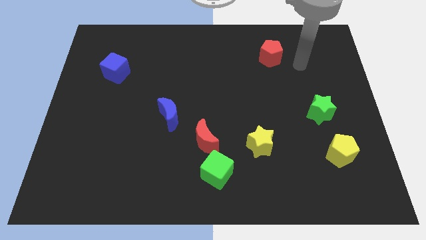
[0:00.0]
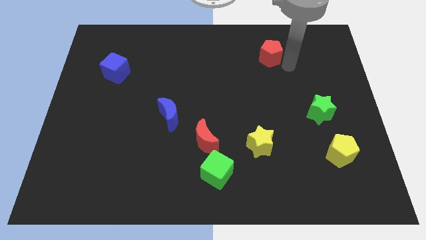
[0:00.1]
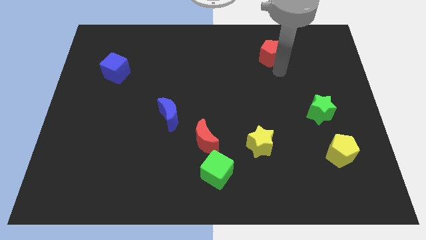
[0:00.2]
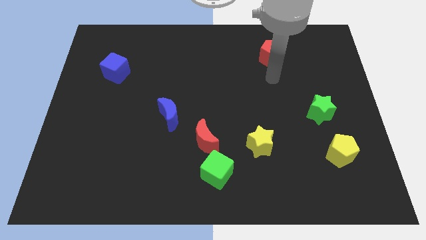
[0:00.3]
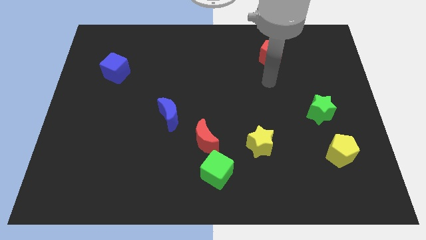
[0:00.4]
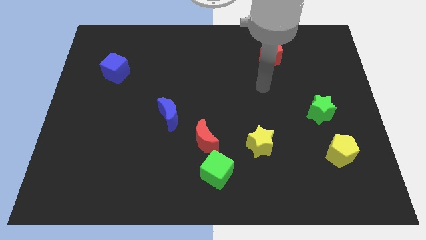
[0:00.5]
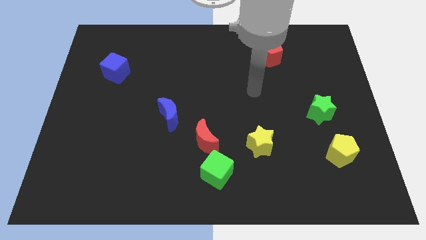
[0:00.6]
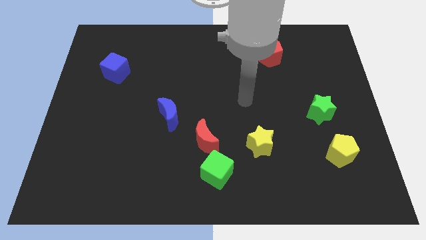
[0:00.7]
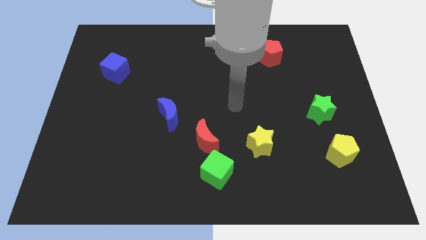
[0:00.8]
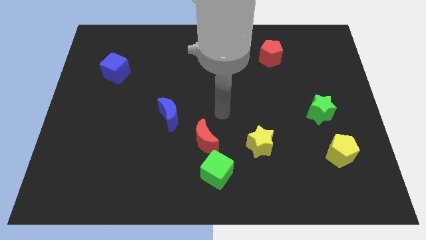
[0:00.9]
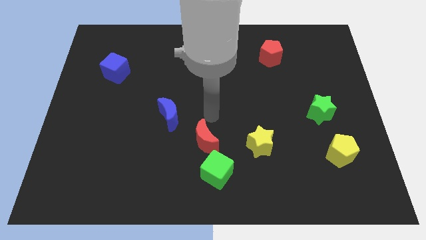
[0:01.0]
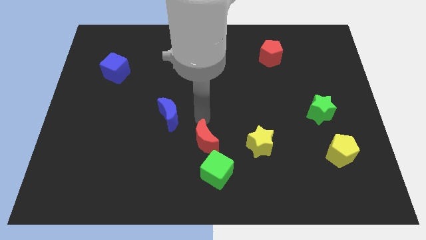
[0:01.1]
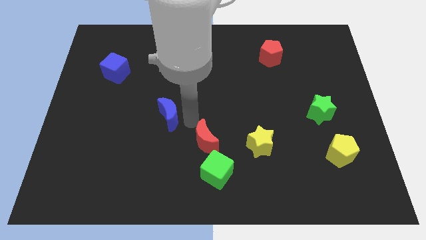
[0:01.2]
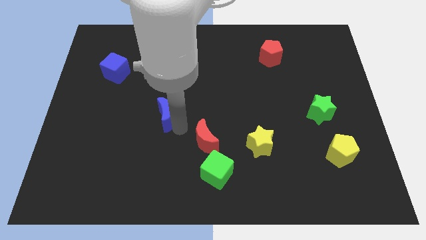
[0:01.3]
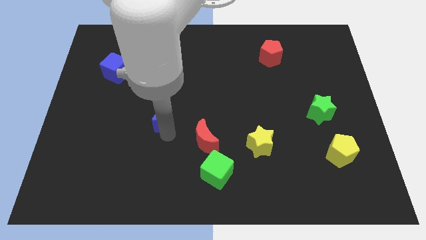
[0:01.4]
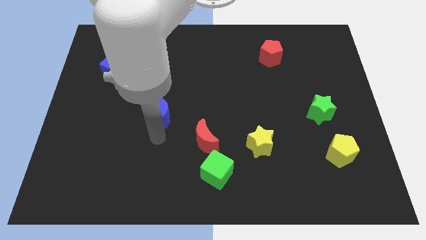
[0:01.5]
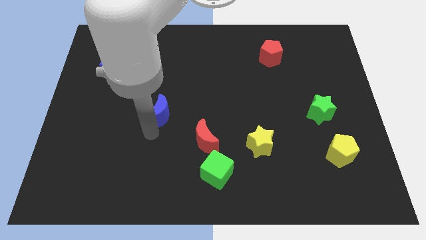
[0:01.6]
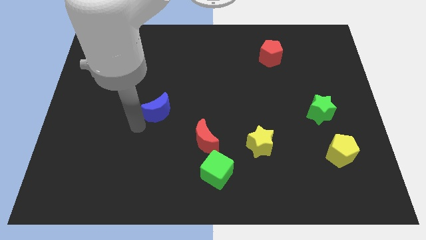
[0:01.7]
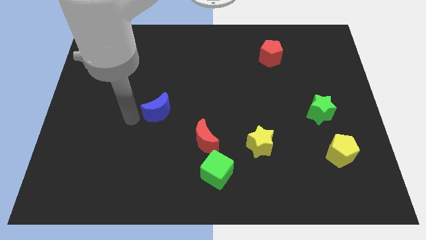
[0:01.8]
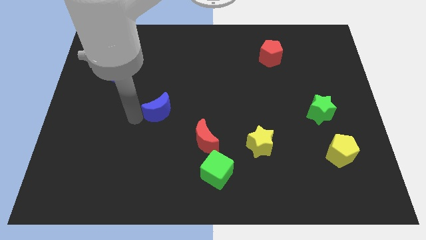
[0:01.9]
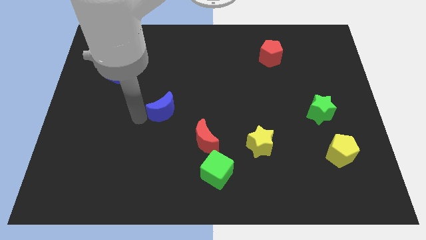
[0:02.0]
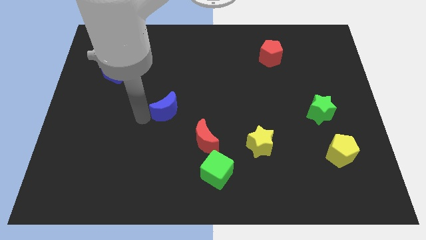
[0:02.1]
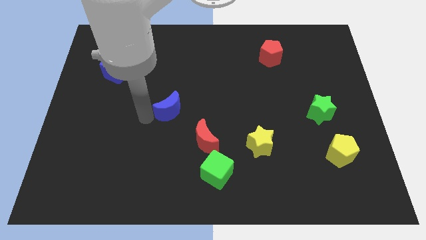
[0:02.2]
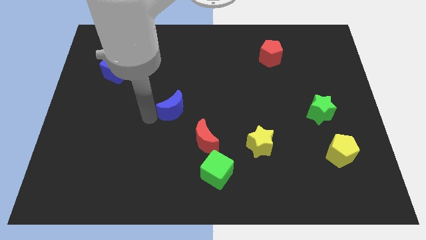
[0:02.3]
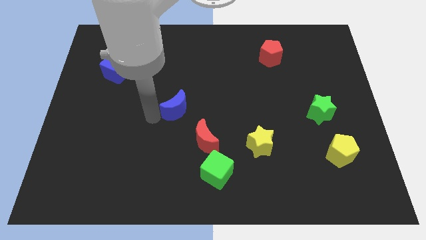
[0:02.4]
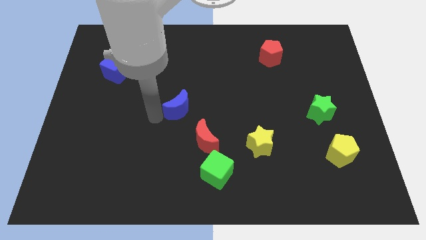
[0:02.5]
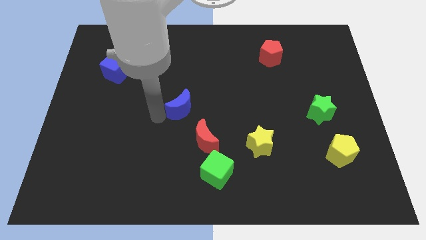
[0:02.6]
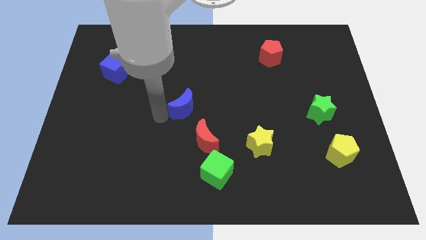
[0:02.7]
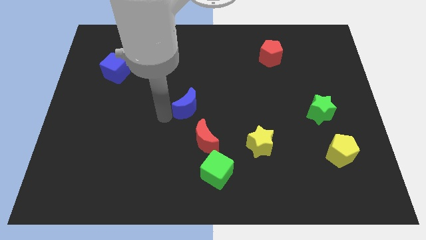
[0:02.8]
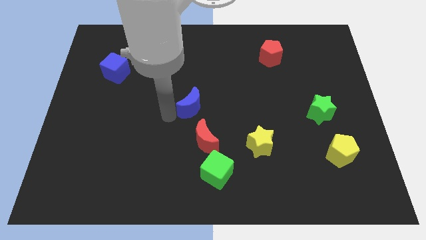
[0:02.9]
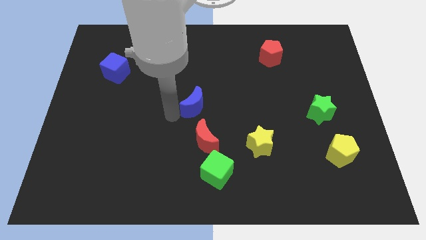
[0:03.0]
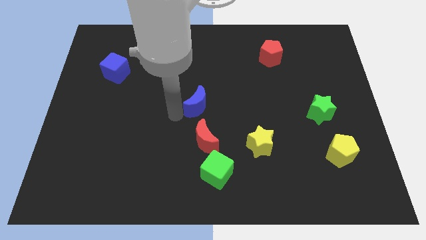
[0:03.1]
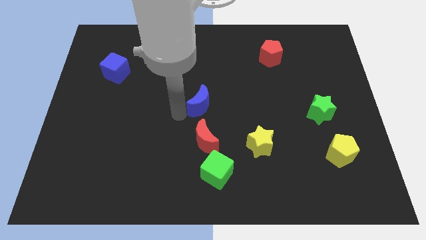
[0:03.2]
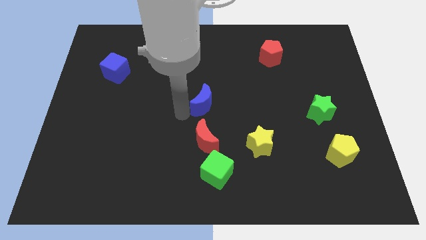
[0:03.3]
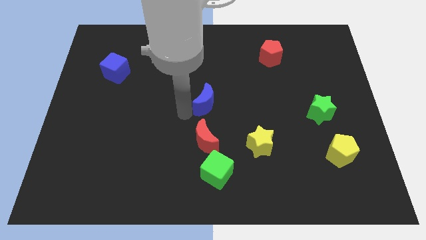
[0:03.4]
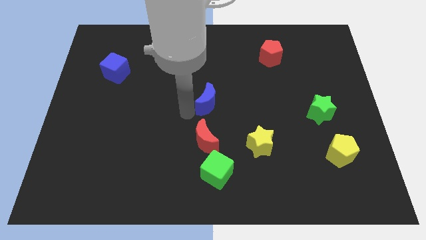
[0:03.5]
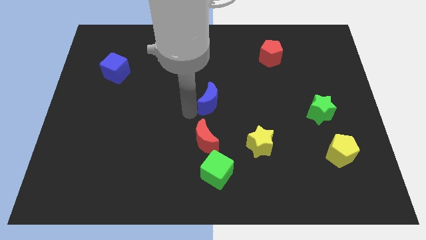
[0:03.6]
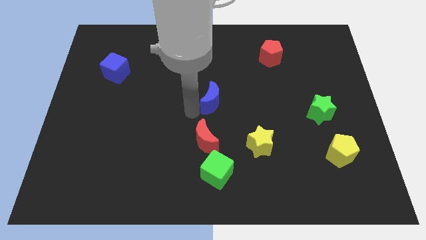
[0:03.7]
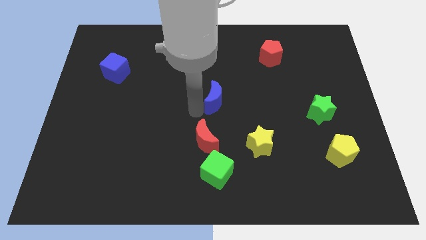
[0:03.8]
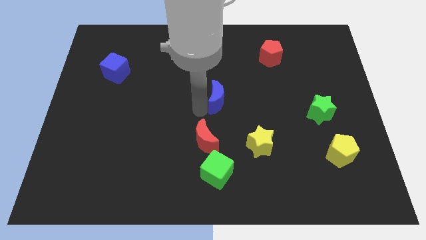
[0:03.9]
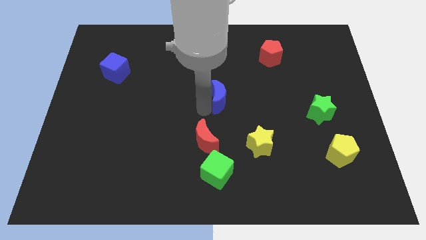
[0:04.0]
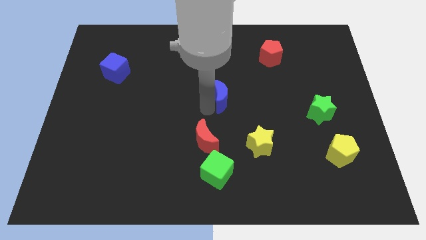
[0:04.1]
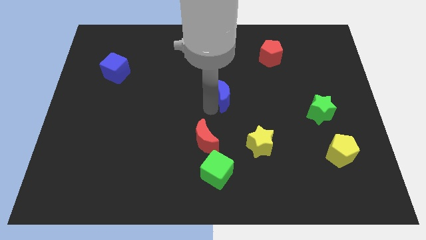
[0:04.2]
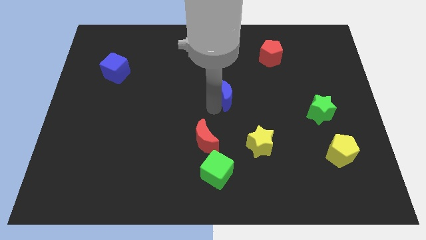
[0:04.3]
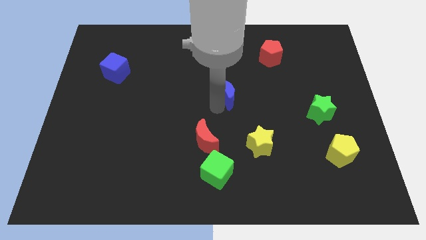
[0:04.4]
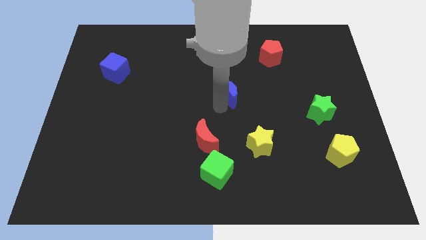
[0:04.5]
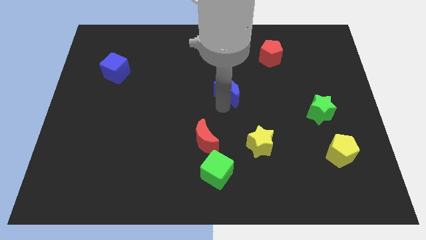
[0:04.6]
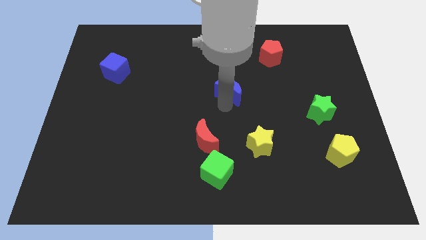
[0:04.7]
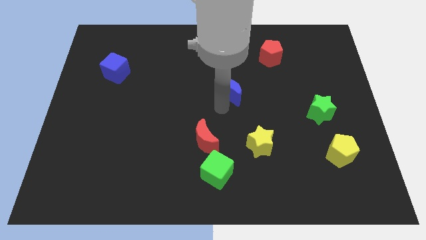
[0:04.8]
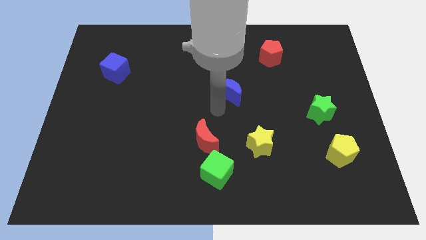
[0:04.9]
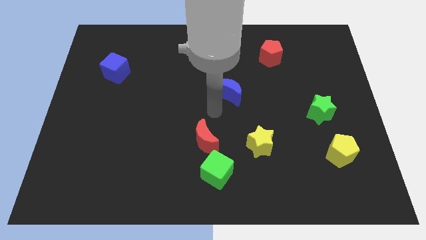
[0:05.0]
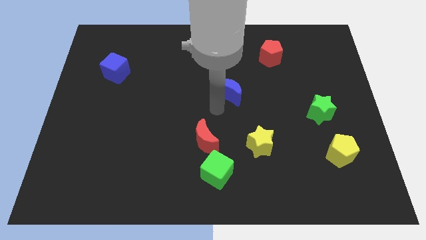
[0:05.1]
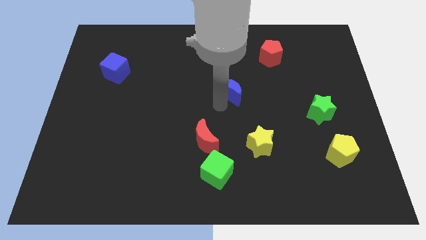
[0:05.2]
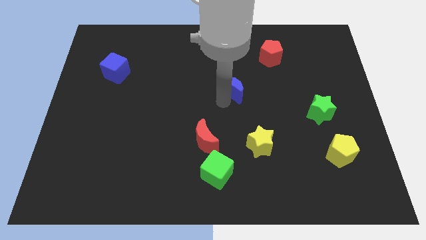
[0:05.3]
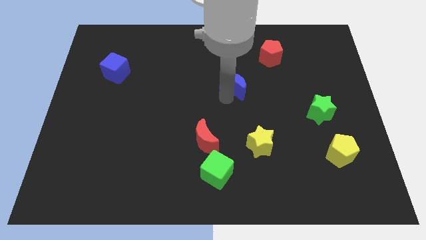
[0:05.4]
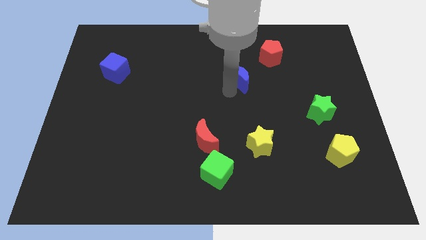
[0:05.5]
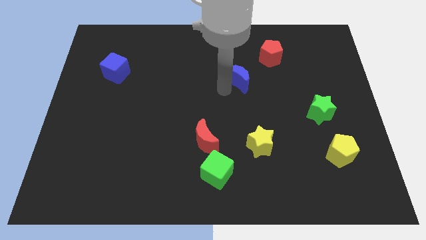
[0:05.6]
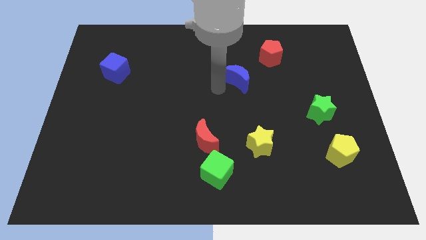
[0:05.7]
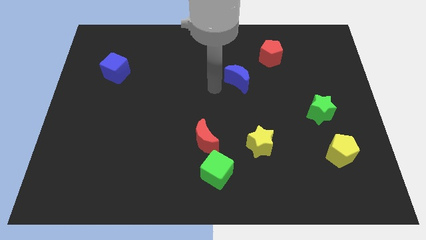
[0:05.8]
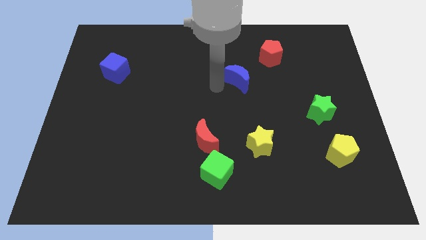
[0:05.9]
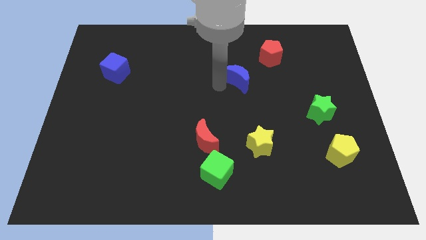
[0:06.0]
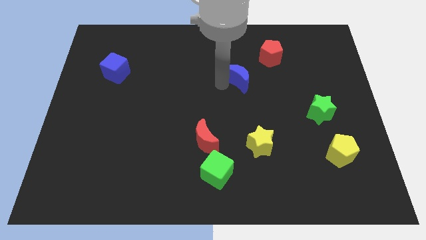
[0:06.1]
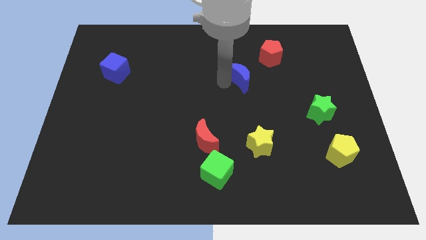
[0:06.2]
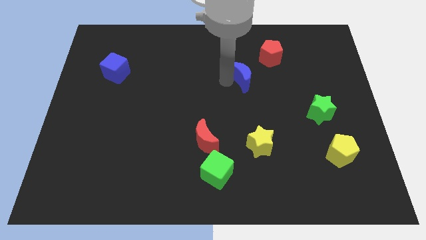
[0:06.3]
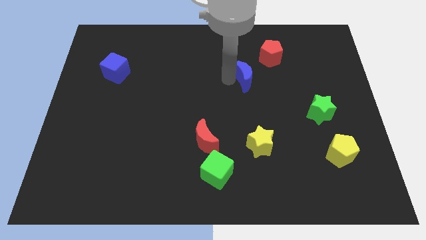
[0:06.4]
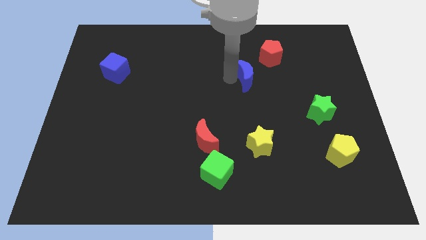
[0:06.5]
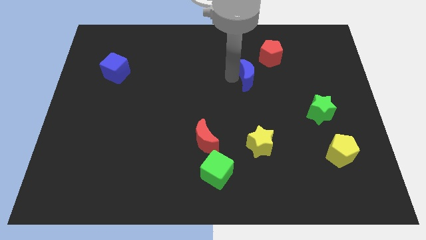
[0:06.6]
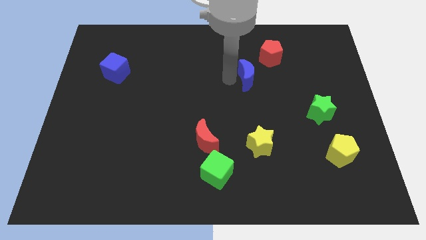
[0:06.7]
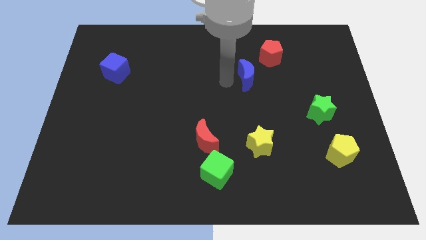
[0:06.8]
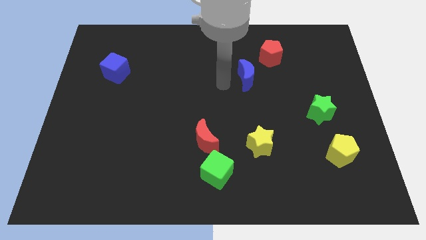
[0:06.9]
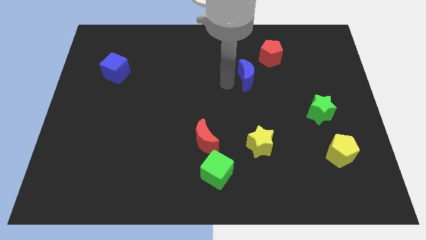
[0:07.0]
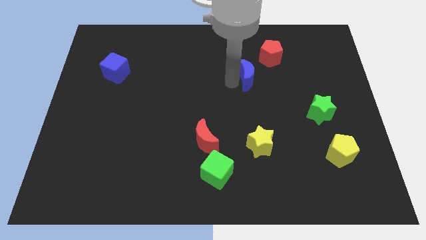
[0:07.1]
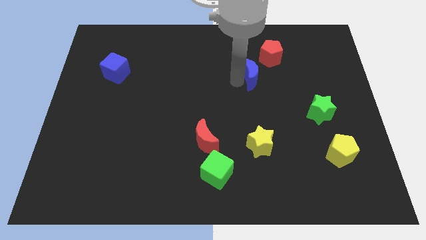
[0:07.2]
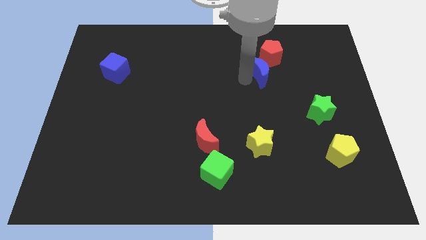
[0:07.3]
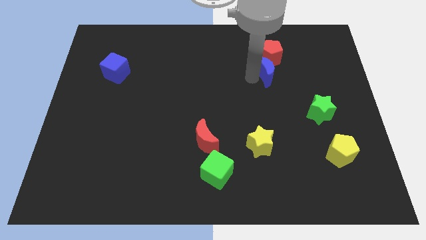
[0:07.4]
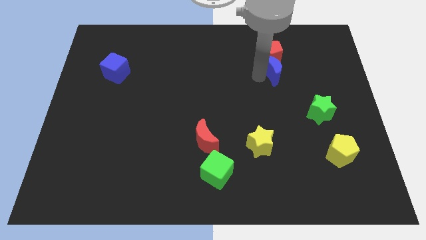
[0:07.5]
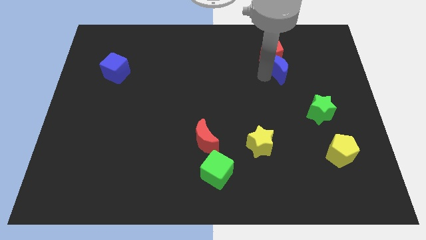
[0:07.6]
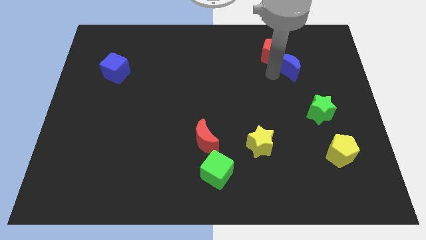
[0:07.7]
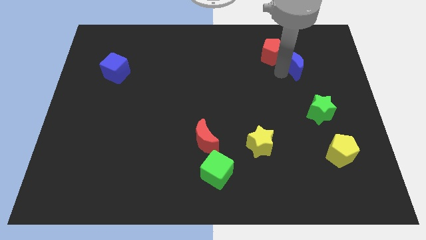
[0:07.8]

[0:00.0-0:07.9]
push the blue moon to the right of the red pentagon
